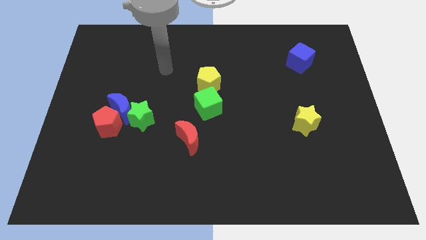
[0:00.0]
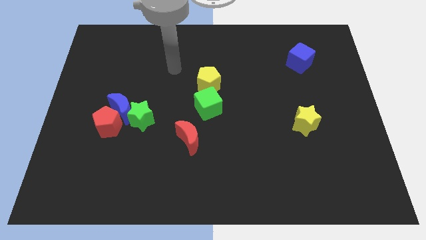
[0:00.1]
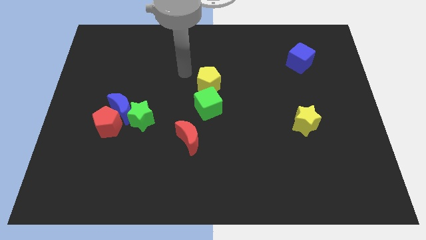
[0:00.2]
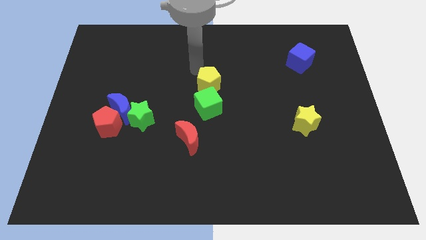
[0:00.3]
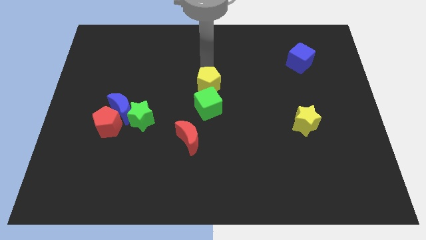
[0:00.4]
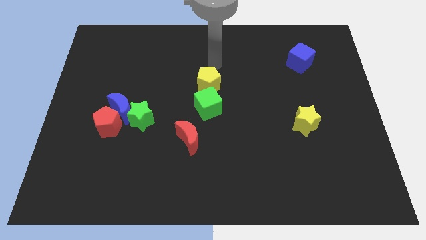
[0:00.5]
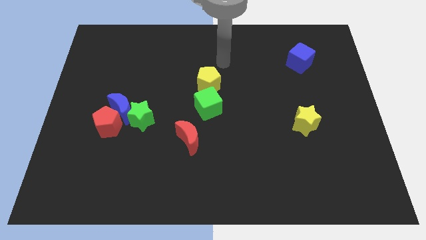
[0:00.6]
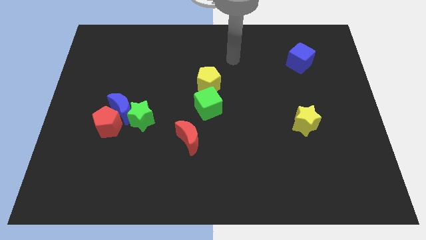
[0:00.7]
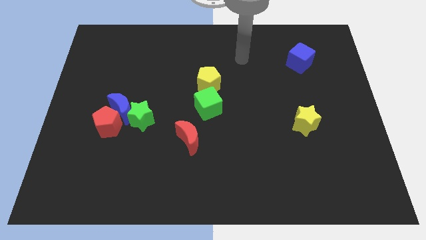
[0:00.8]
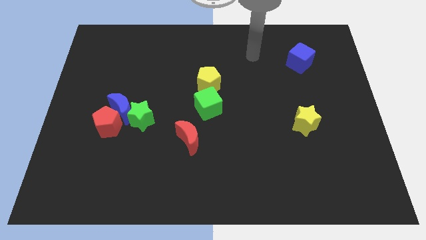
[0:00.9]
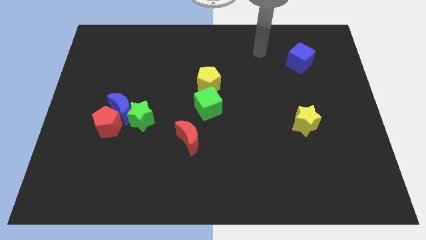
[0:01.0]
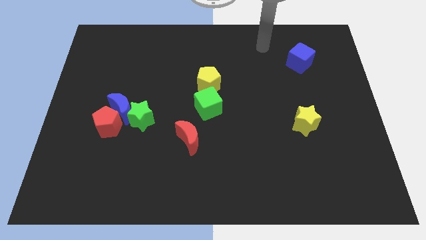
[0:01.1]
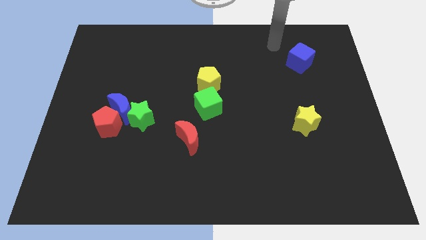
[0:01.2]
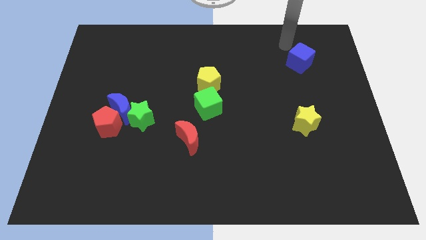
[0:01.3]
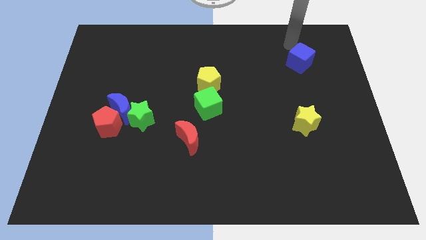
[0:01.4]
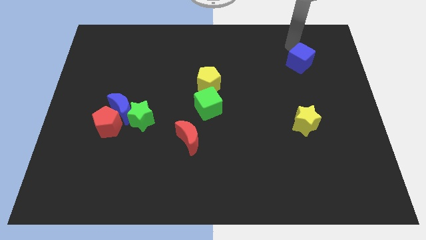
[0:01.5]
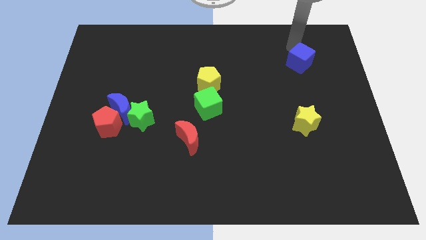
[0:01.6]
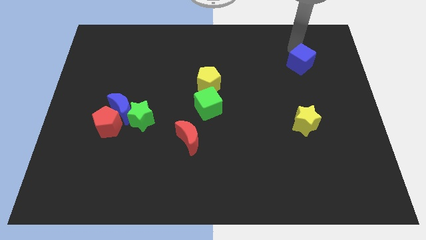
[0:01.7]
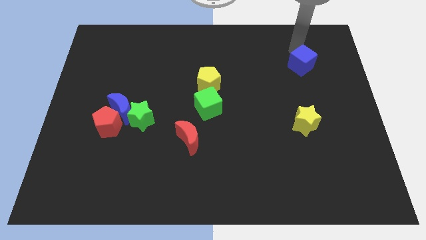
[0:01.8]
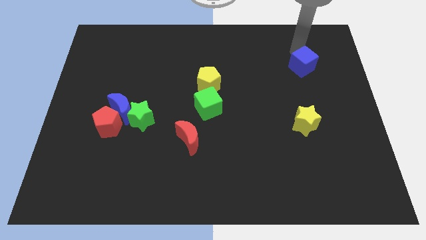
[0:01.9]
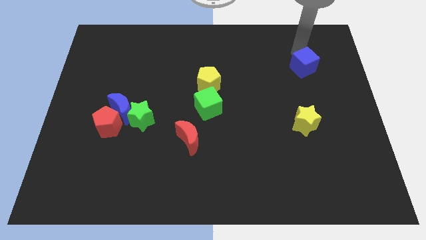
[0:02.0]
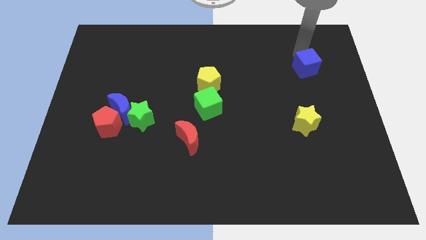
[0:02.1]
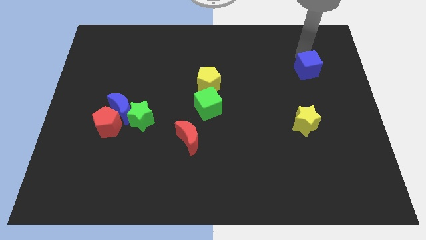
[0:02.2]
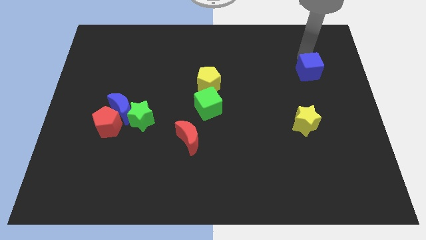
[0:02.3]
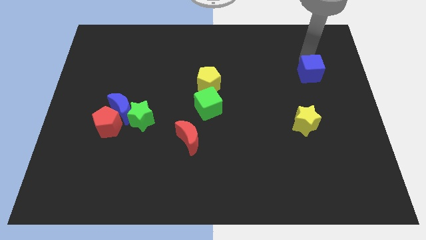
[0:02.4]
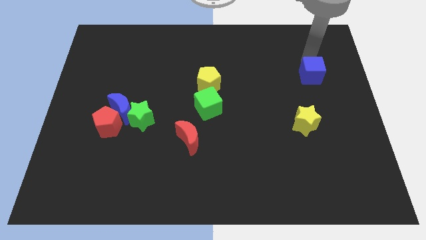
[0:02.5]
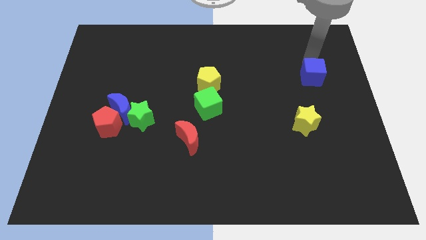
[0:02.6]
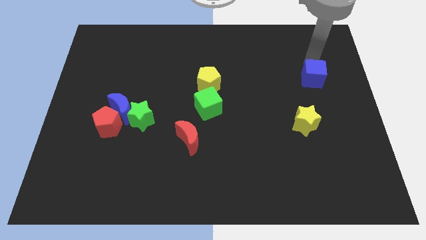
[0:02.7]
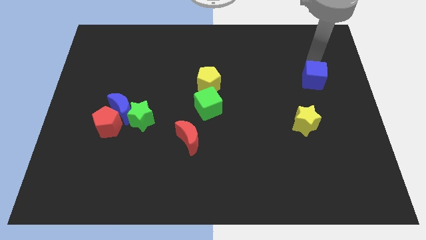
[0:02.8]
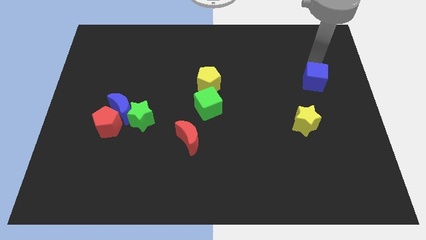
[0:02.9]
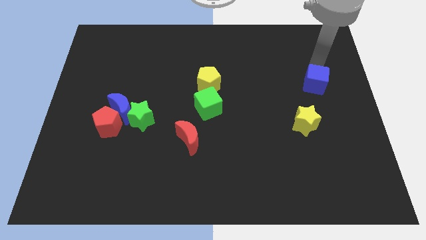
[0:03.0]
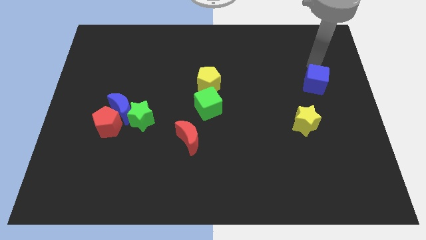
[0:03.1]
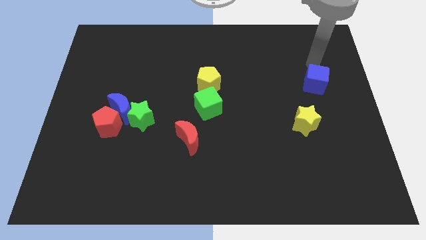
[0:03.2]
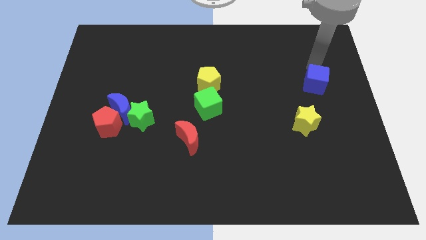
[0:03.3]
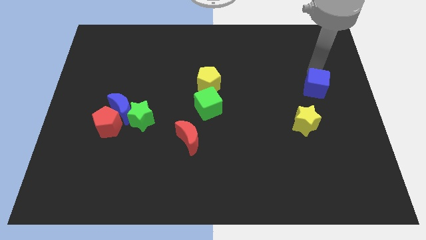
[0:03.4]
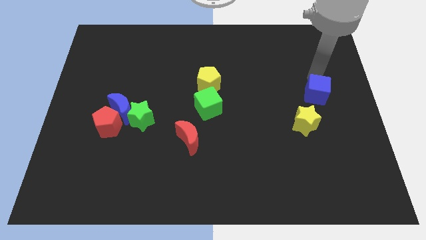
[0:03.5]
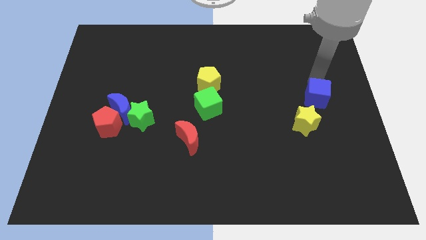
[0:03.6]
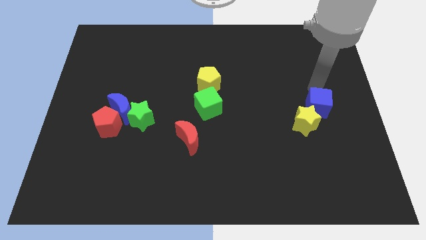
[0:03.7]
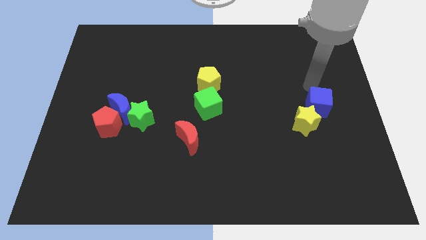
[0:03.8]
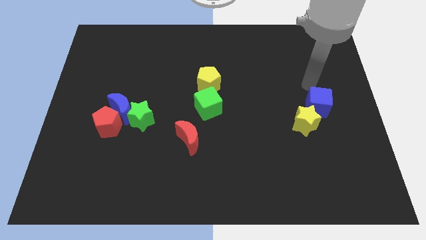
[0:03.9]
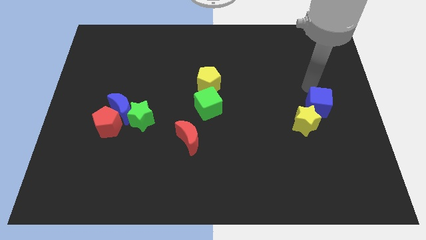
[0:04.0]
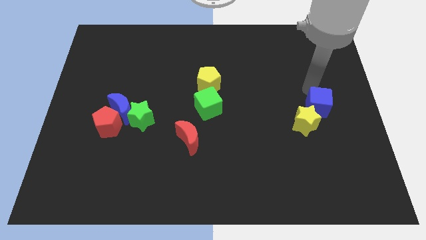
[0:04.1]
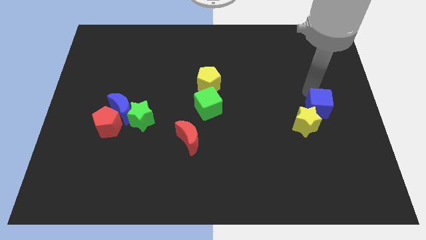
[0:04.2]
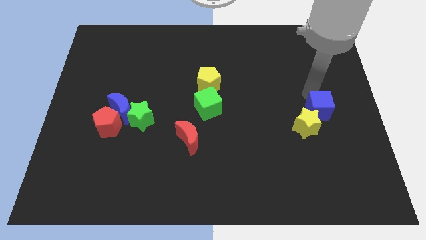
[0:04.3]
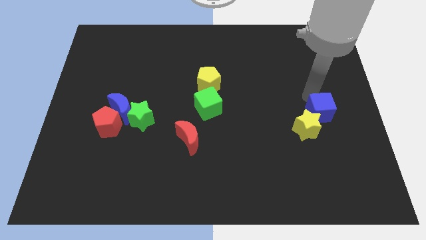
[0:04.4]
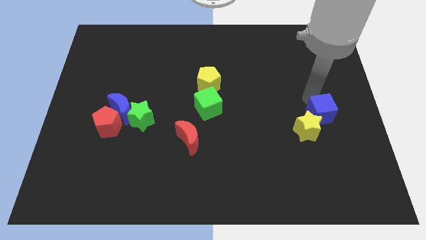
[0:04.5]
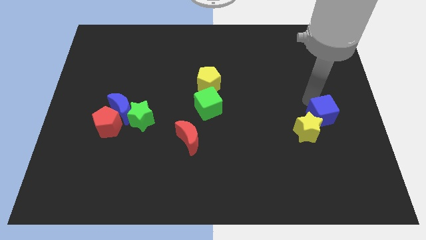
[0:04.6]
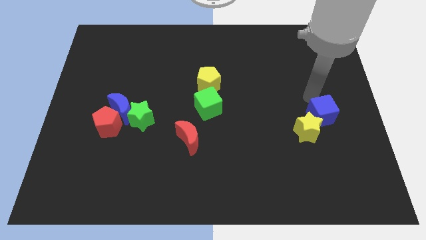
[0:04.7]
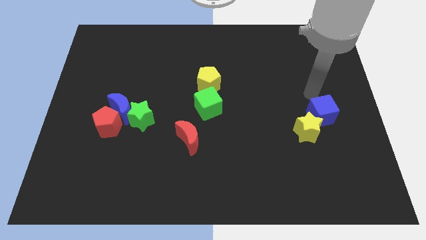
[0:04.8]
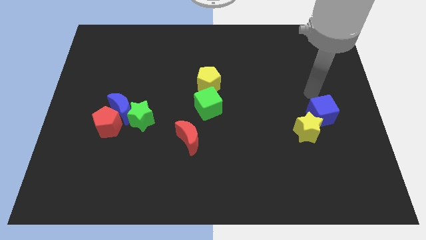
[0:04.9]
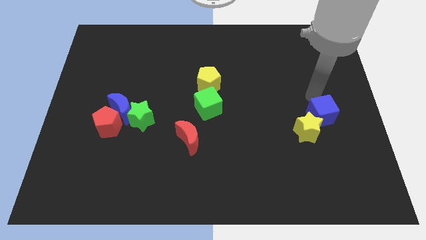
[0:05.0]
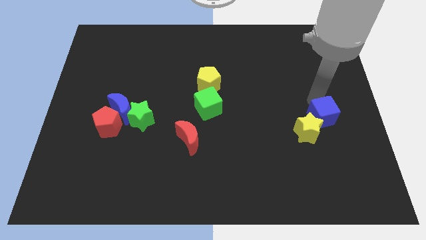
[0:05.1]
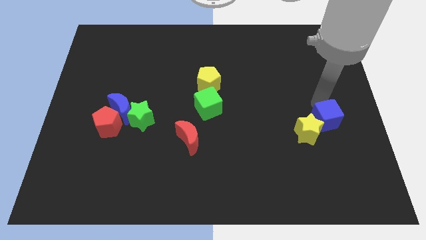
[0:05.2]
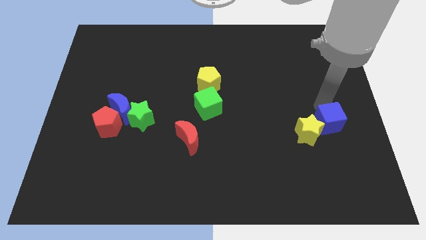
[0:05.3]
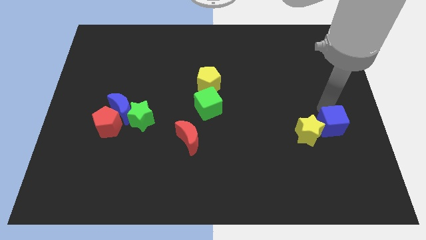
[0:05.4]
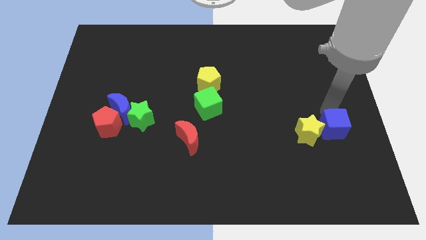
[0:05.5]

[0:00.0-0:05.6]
slide the blue cube downwards

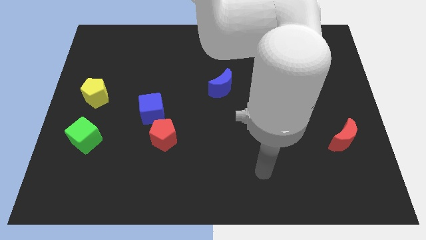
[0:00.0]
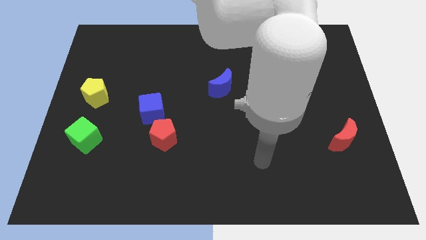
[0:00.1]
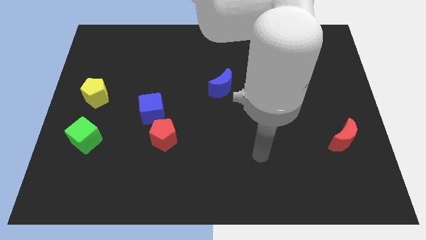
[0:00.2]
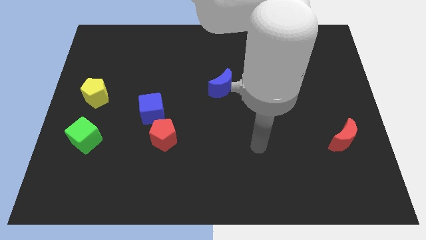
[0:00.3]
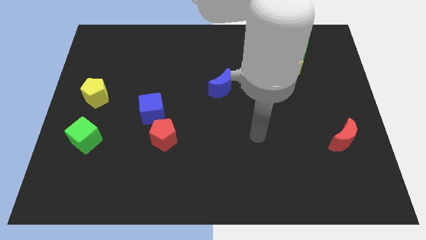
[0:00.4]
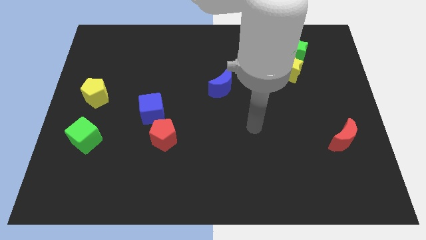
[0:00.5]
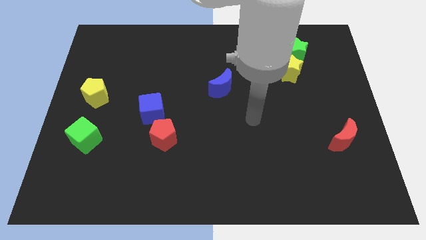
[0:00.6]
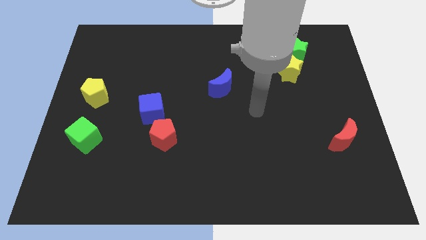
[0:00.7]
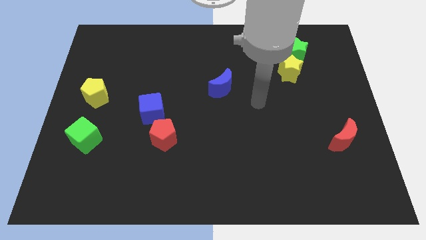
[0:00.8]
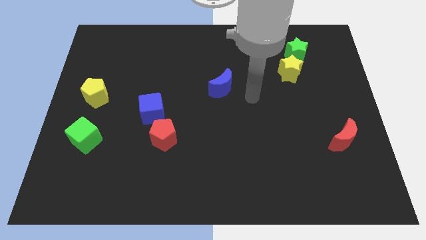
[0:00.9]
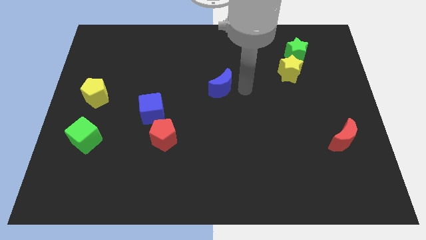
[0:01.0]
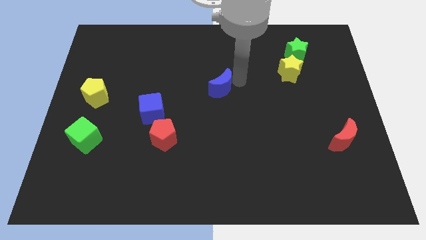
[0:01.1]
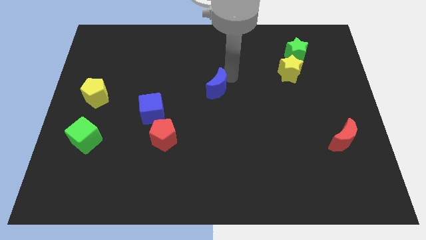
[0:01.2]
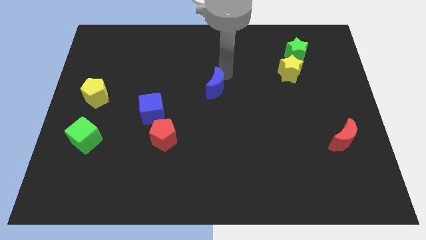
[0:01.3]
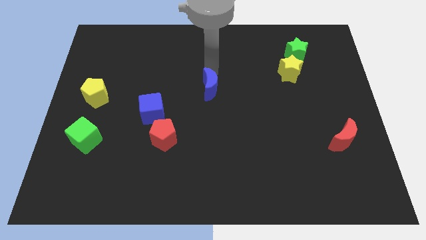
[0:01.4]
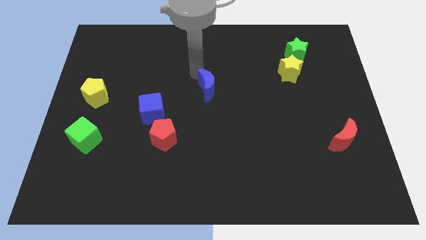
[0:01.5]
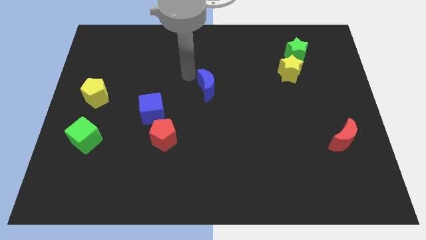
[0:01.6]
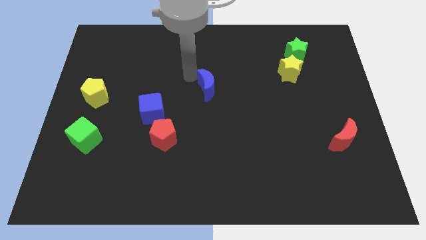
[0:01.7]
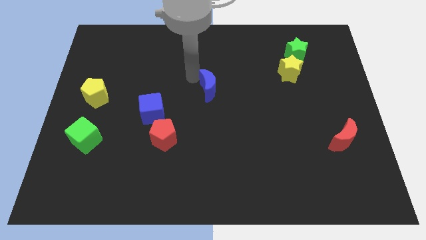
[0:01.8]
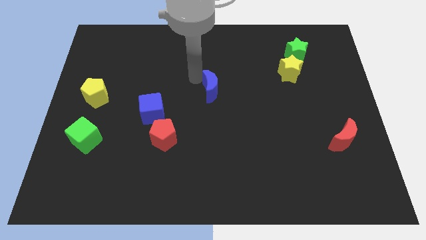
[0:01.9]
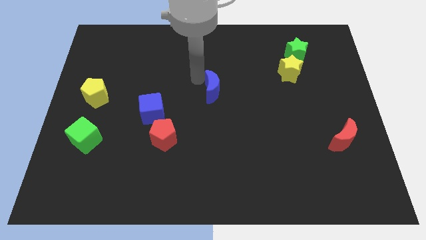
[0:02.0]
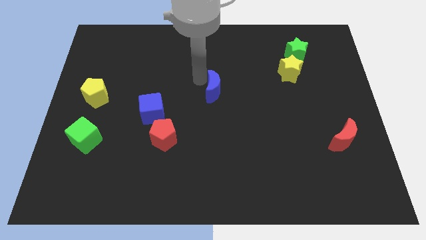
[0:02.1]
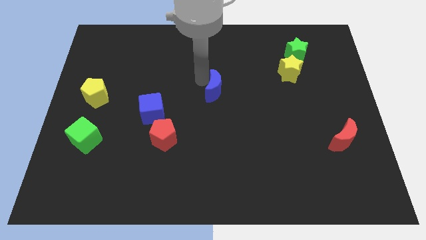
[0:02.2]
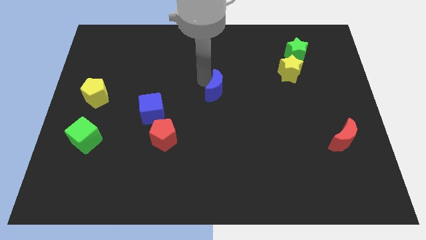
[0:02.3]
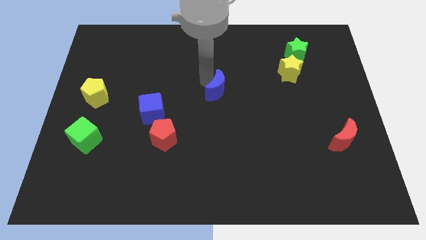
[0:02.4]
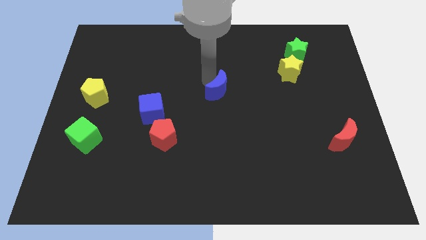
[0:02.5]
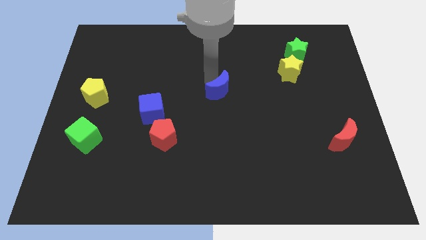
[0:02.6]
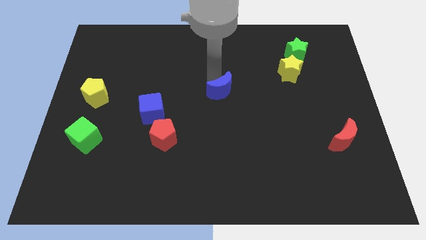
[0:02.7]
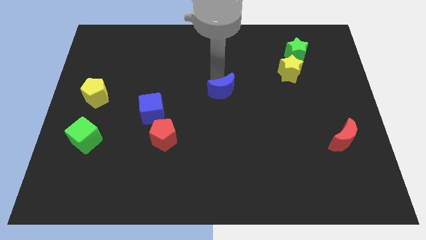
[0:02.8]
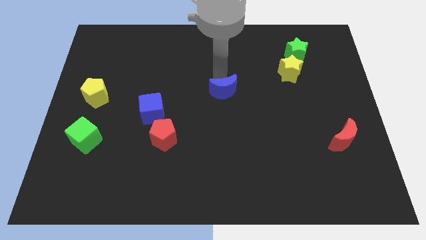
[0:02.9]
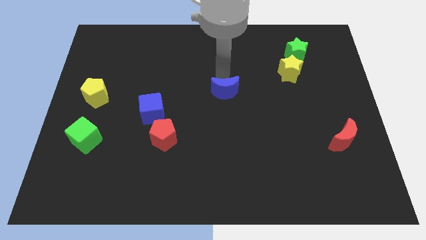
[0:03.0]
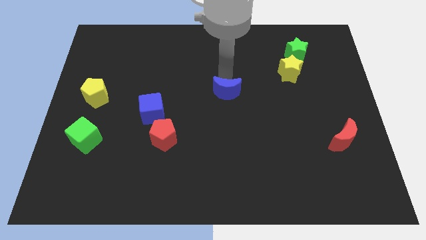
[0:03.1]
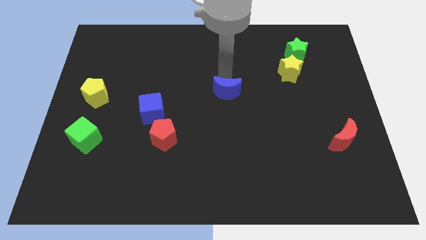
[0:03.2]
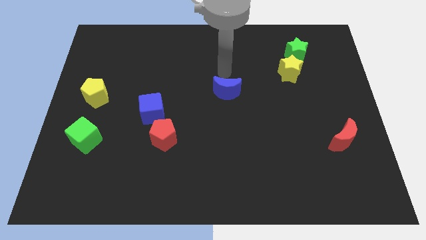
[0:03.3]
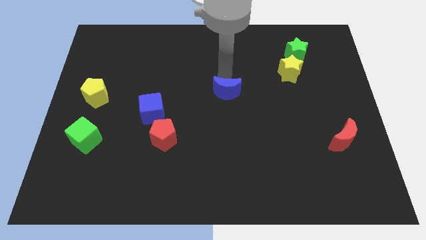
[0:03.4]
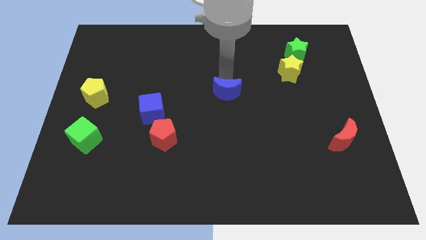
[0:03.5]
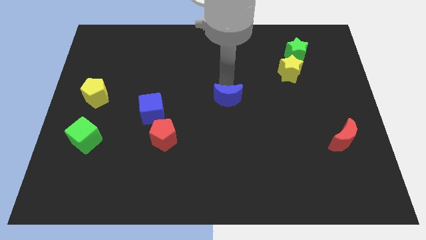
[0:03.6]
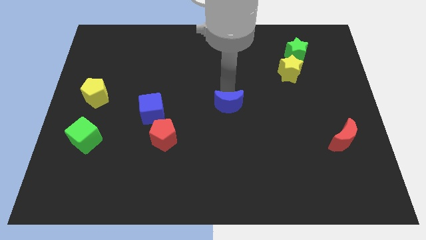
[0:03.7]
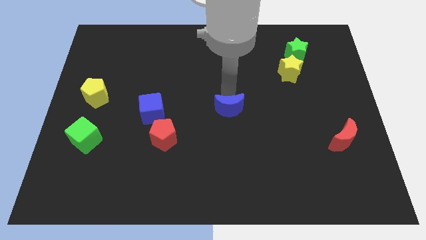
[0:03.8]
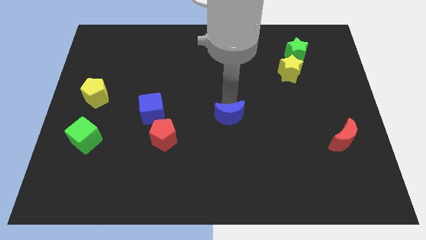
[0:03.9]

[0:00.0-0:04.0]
slightly move the blue moon down
